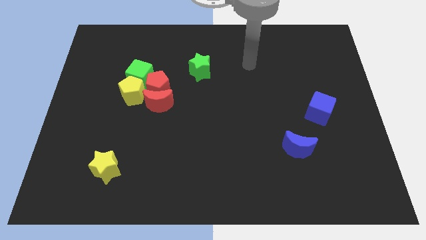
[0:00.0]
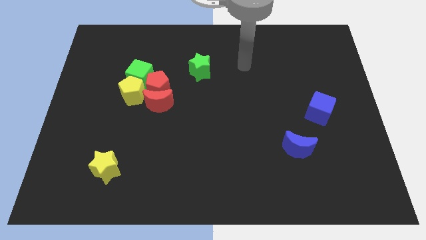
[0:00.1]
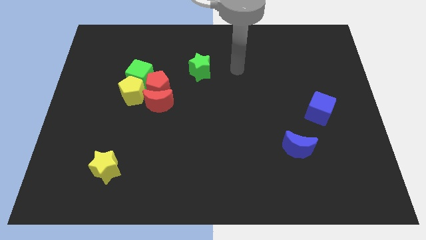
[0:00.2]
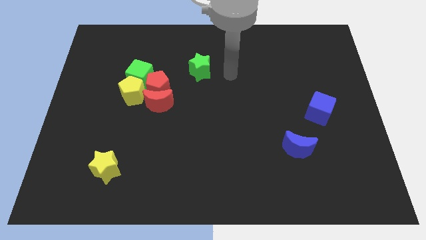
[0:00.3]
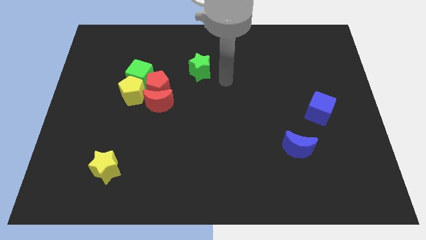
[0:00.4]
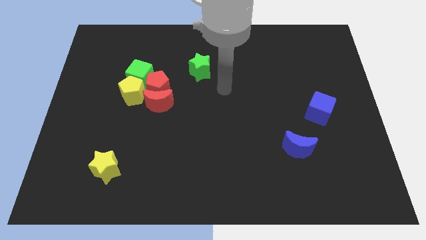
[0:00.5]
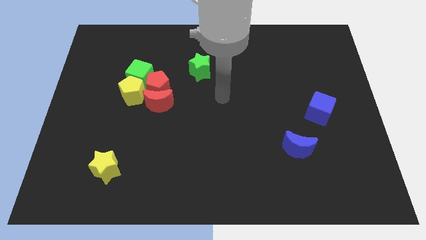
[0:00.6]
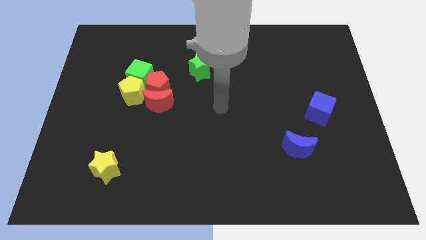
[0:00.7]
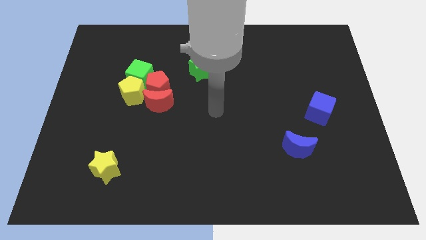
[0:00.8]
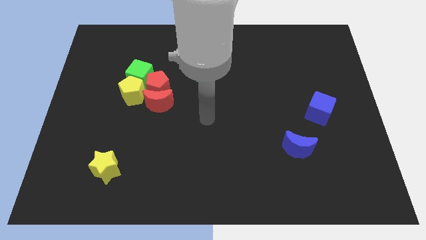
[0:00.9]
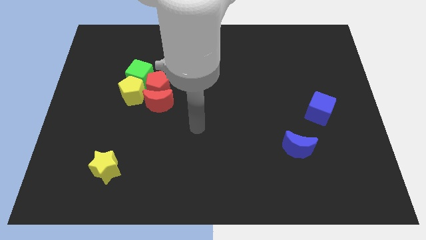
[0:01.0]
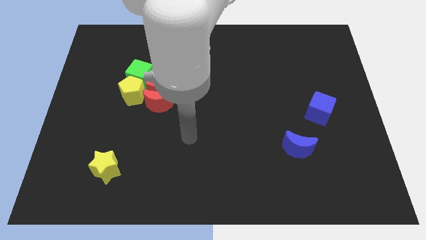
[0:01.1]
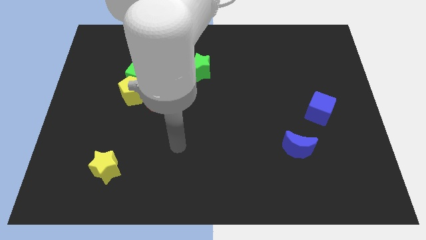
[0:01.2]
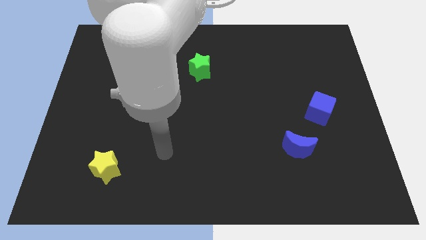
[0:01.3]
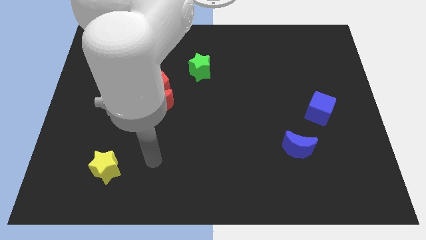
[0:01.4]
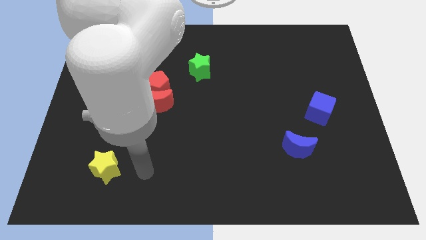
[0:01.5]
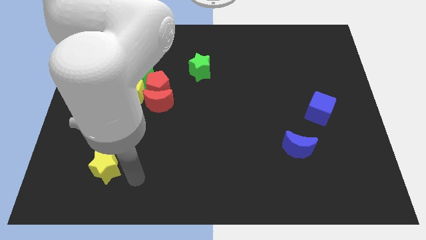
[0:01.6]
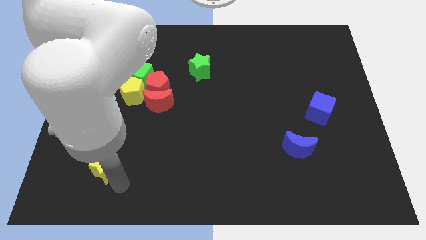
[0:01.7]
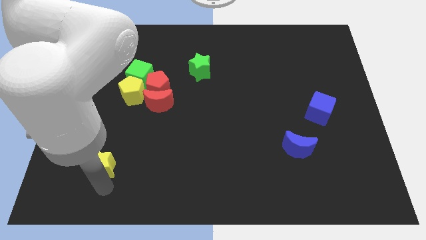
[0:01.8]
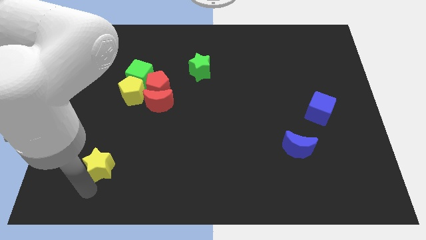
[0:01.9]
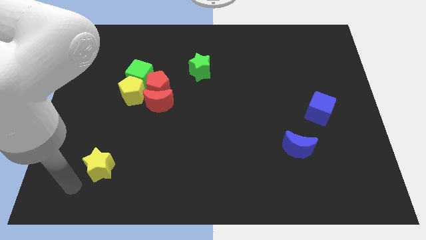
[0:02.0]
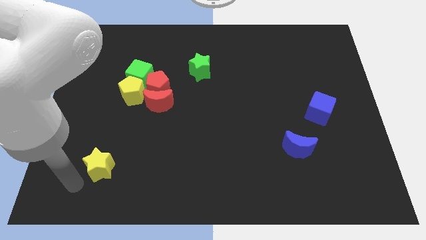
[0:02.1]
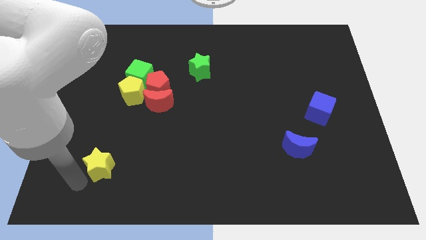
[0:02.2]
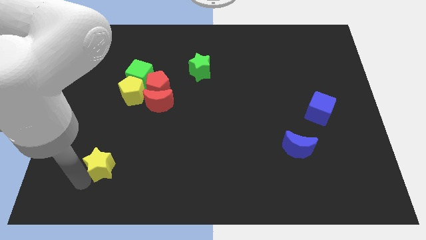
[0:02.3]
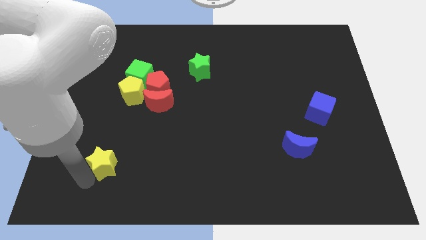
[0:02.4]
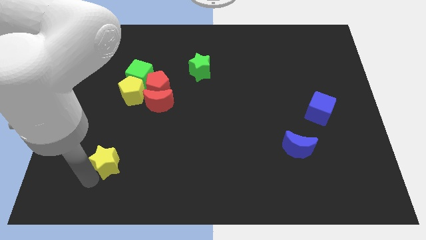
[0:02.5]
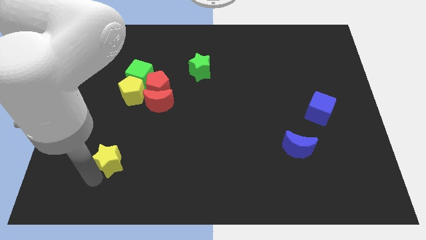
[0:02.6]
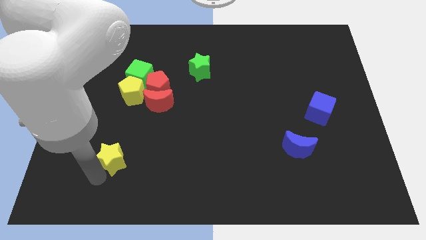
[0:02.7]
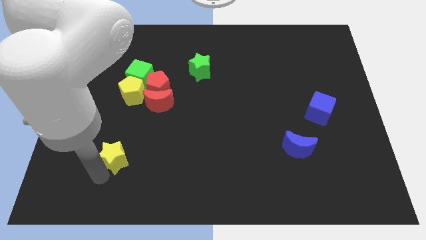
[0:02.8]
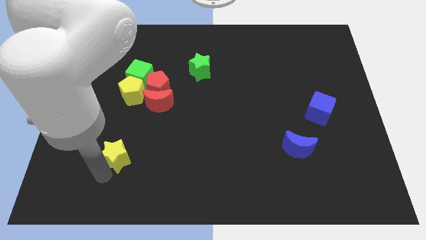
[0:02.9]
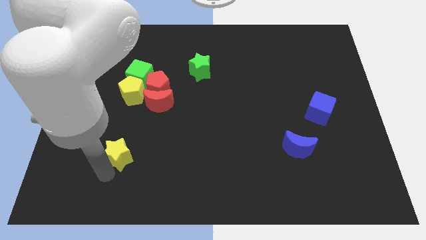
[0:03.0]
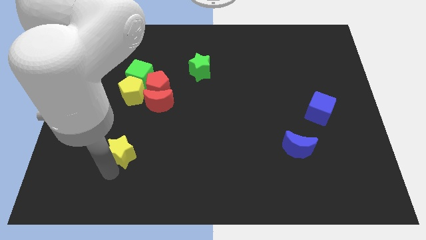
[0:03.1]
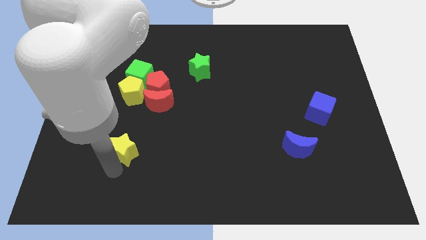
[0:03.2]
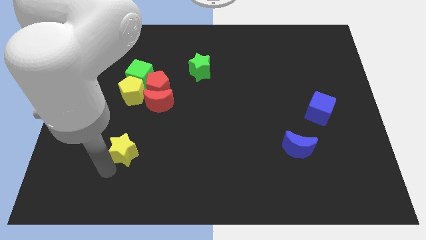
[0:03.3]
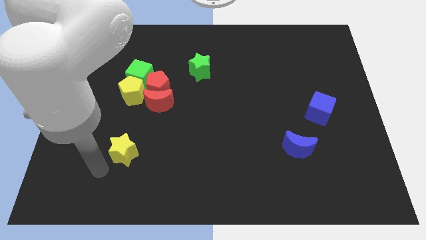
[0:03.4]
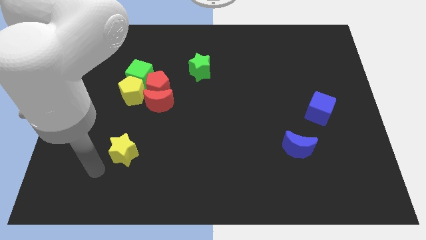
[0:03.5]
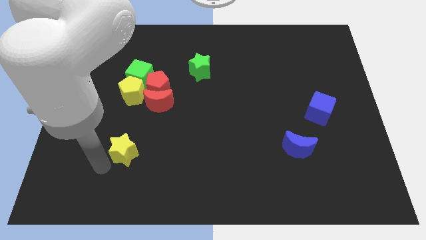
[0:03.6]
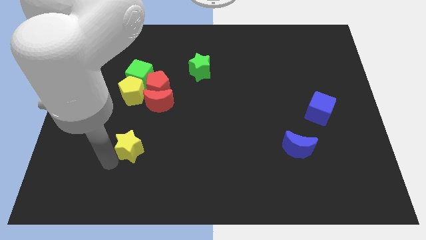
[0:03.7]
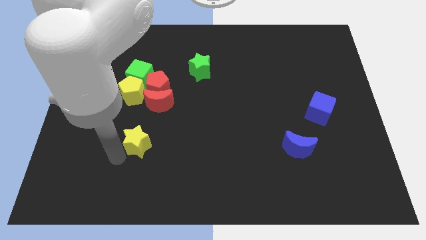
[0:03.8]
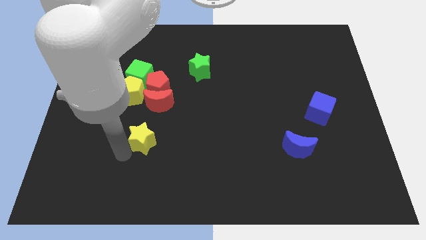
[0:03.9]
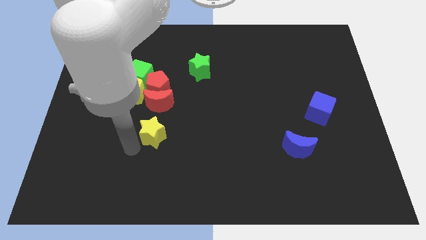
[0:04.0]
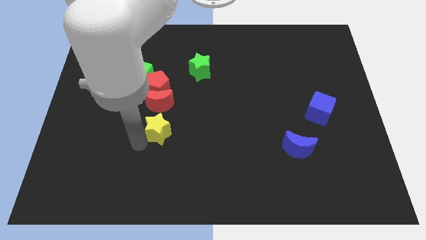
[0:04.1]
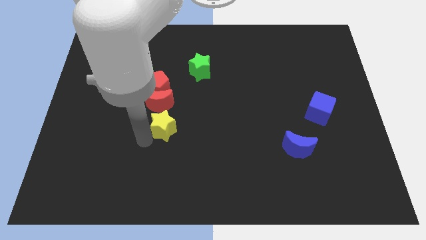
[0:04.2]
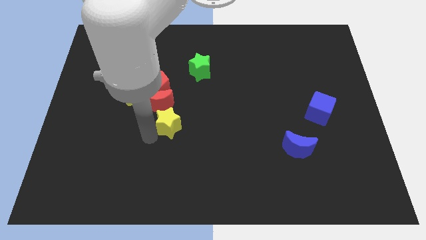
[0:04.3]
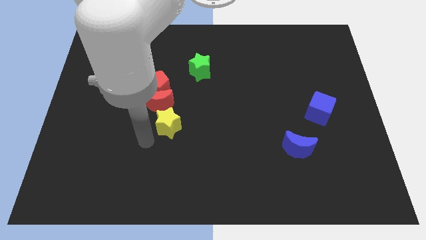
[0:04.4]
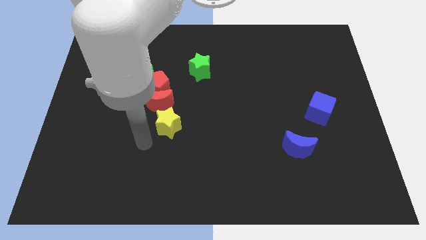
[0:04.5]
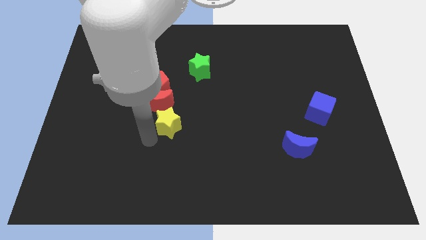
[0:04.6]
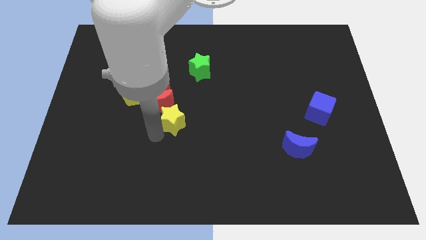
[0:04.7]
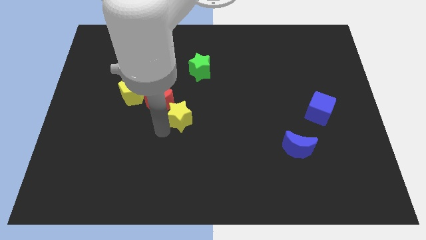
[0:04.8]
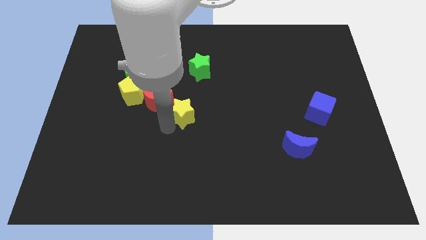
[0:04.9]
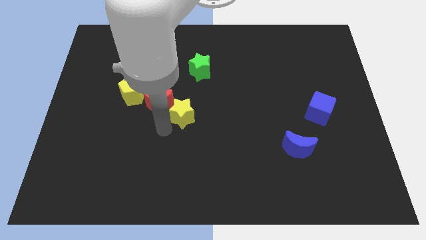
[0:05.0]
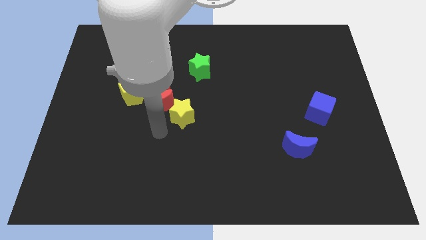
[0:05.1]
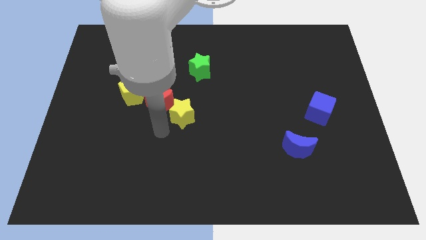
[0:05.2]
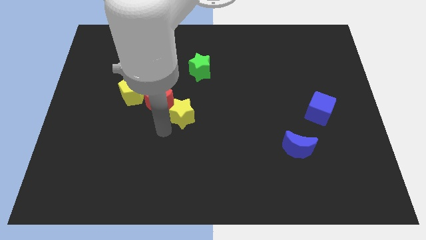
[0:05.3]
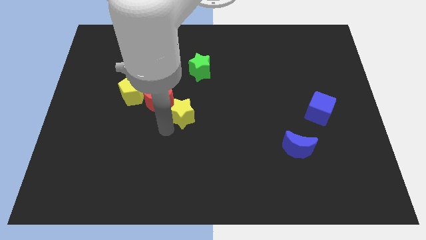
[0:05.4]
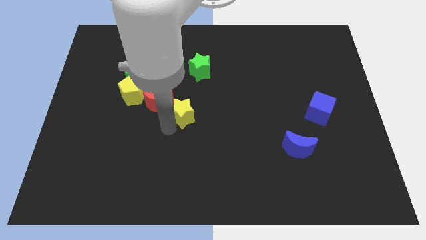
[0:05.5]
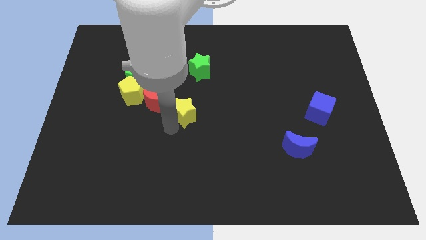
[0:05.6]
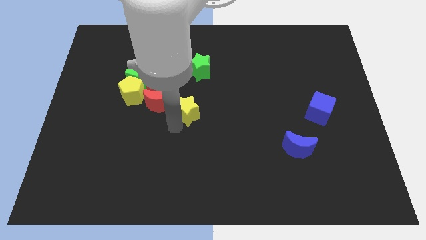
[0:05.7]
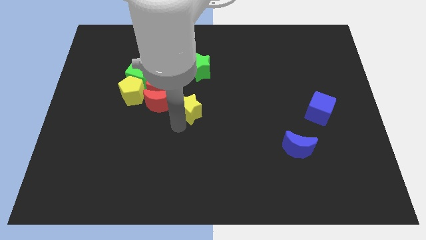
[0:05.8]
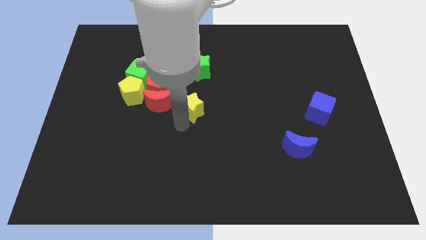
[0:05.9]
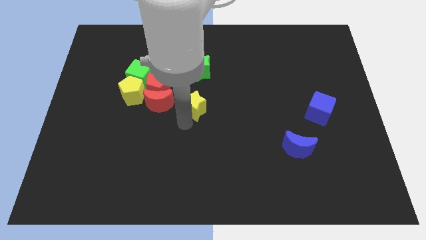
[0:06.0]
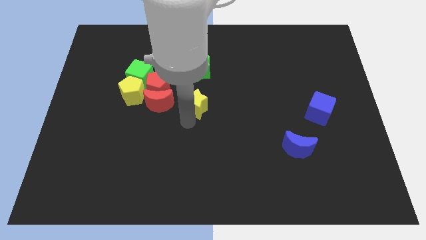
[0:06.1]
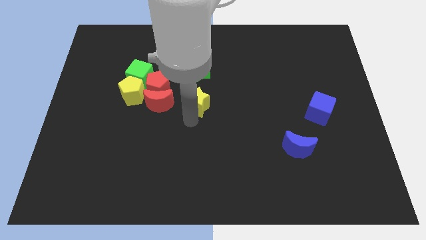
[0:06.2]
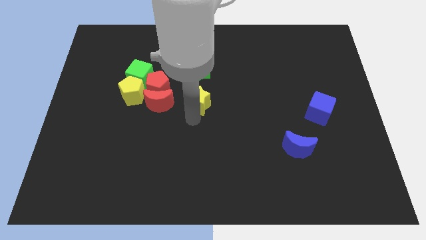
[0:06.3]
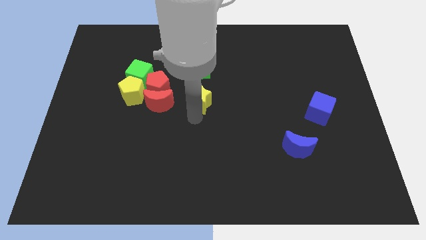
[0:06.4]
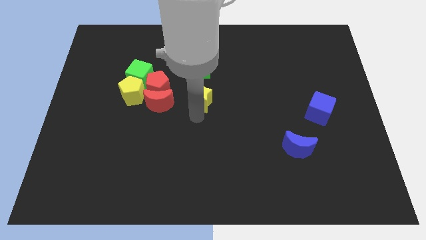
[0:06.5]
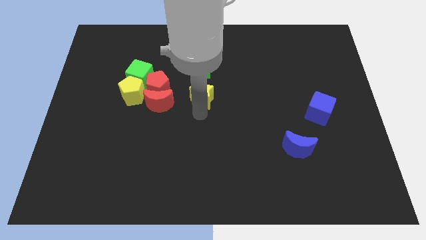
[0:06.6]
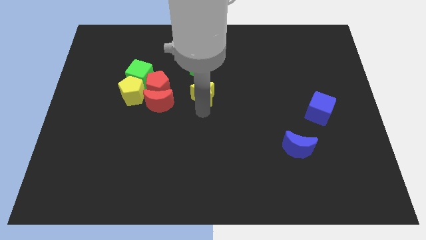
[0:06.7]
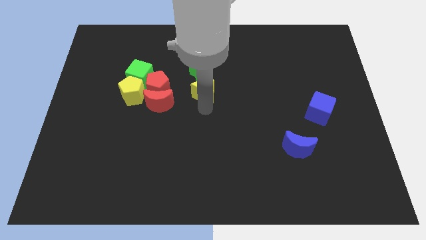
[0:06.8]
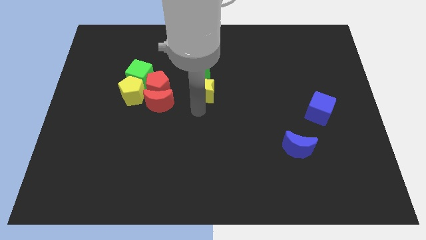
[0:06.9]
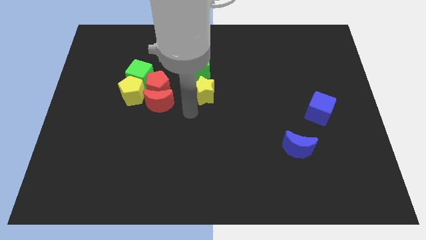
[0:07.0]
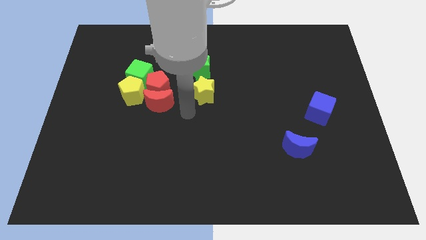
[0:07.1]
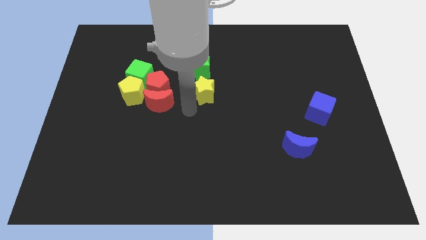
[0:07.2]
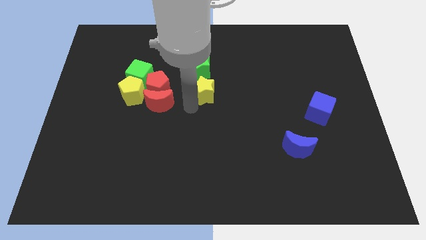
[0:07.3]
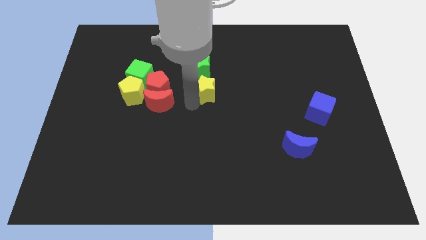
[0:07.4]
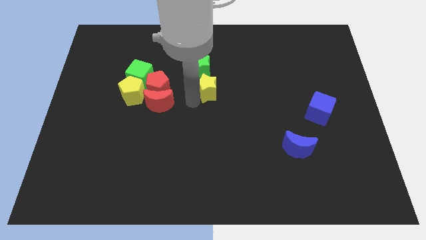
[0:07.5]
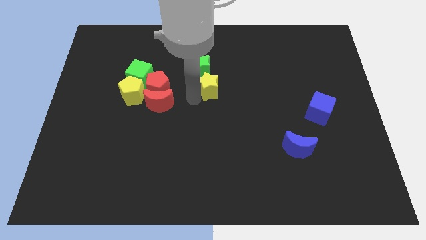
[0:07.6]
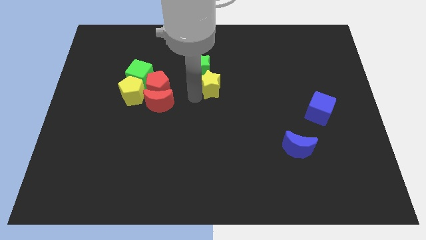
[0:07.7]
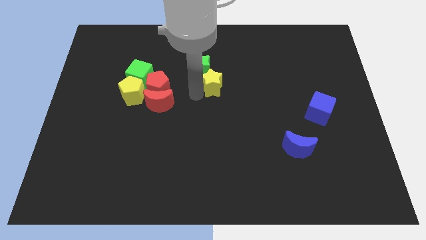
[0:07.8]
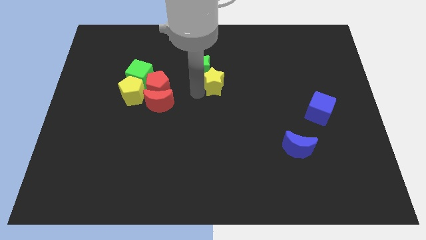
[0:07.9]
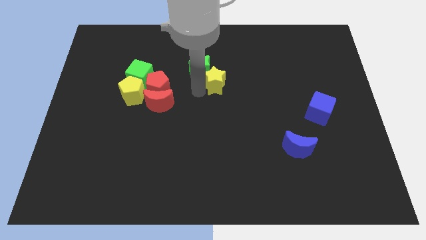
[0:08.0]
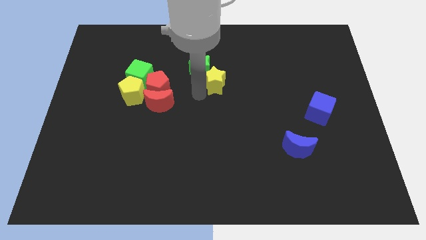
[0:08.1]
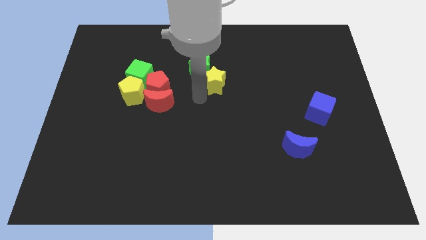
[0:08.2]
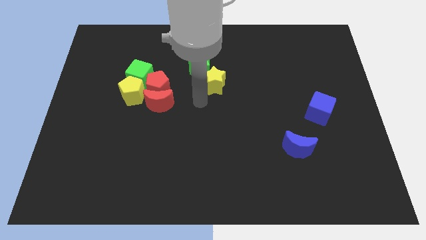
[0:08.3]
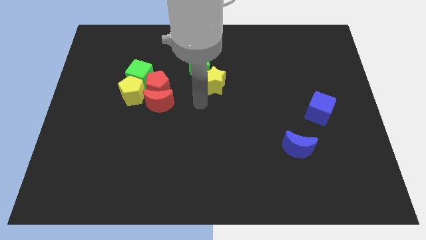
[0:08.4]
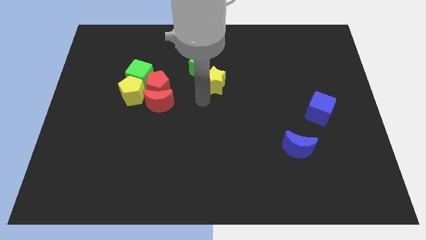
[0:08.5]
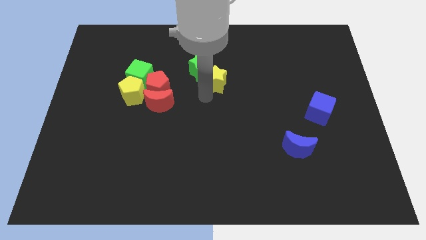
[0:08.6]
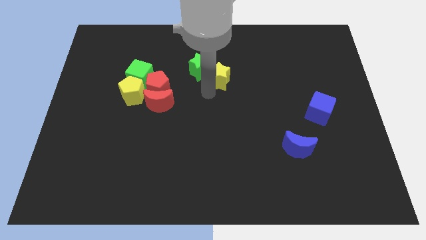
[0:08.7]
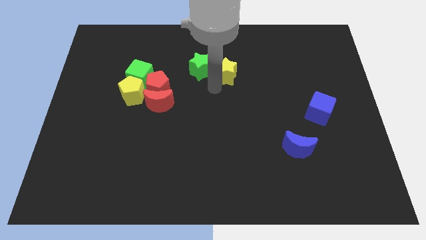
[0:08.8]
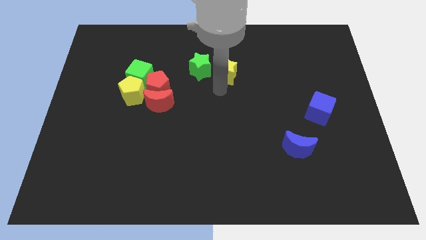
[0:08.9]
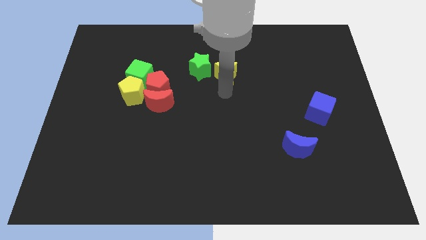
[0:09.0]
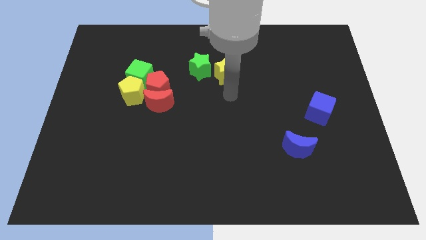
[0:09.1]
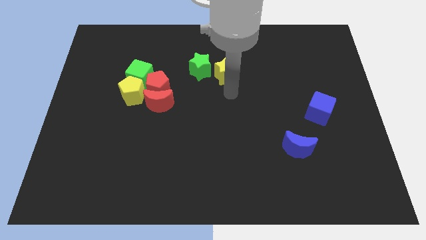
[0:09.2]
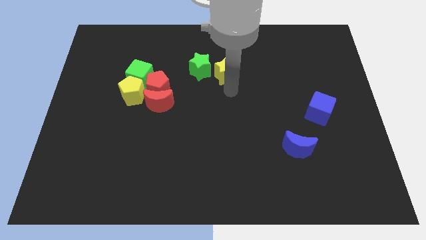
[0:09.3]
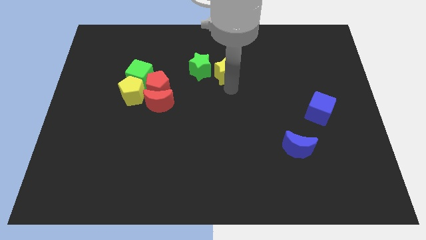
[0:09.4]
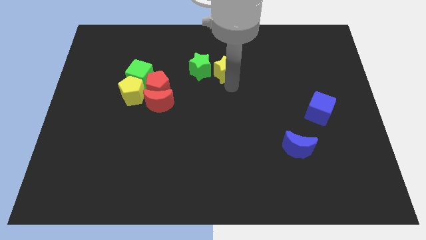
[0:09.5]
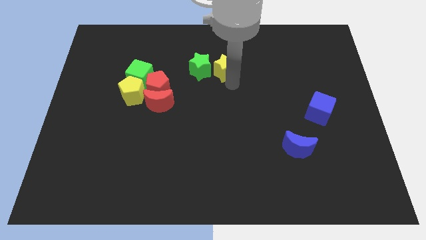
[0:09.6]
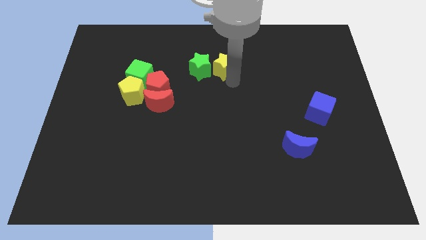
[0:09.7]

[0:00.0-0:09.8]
slide the yellow star diagonally up and to the right of the green star
